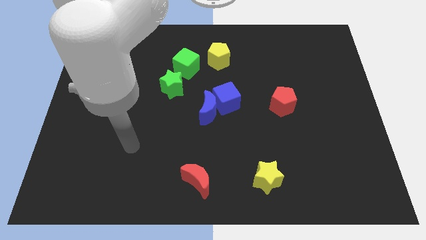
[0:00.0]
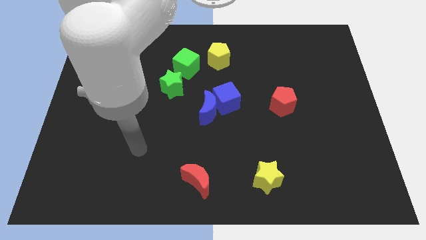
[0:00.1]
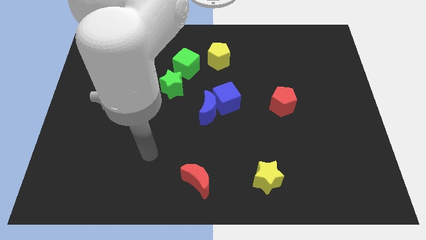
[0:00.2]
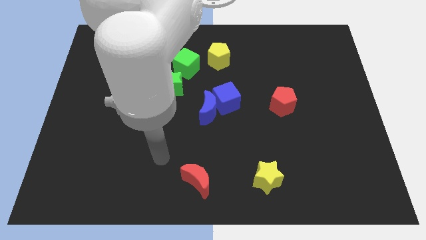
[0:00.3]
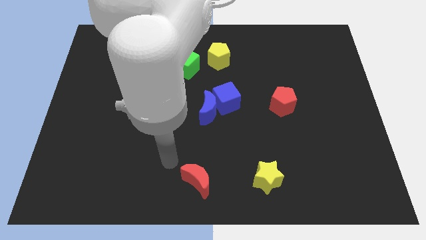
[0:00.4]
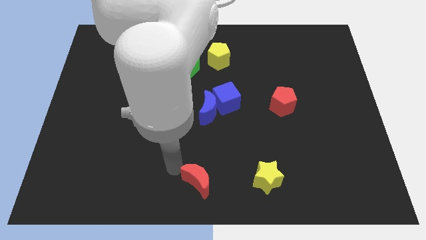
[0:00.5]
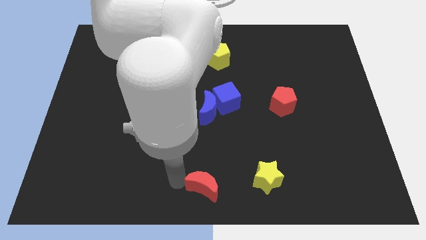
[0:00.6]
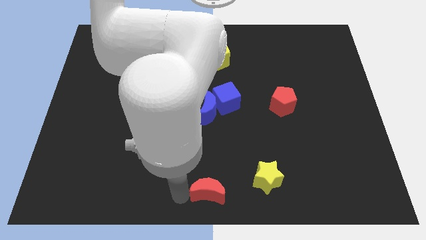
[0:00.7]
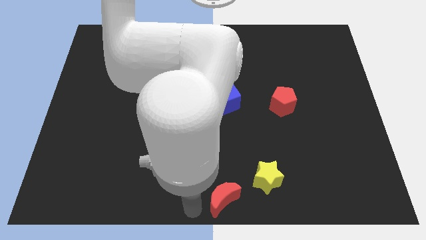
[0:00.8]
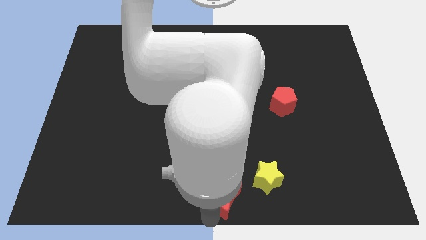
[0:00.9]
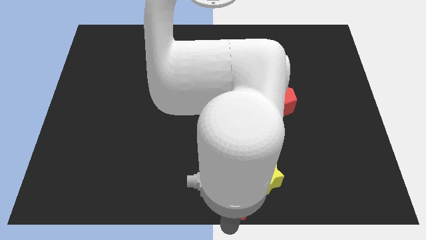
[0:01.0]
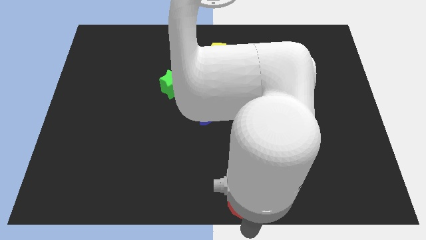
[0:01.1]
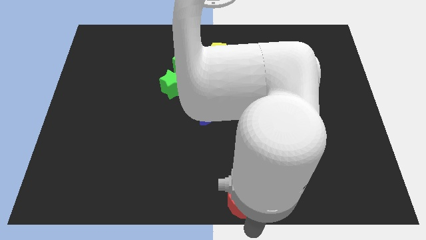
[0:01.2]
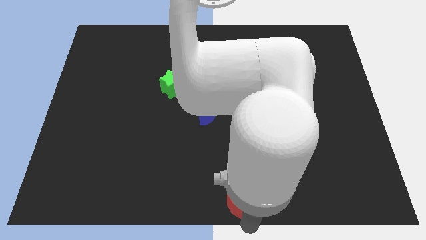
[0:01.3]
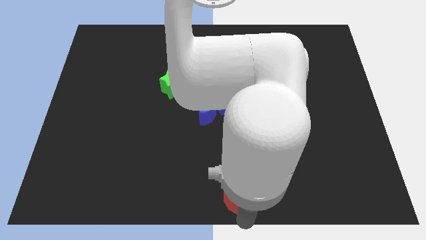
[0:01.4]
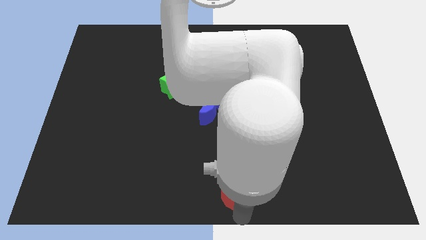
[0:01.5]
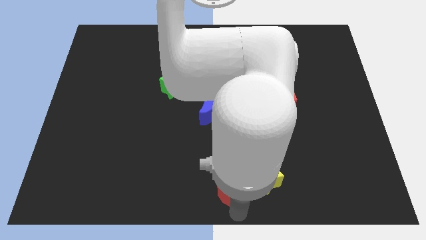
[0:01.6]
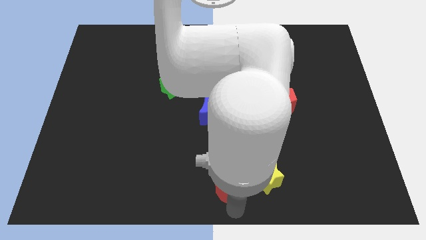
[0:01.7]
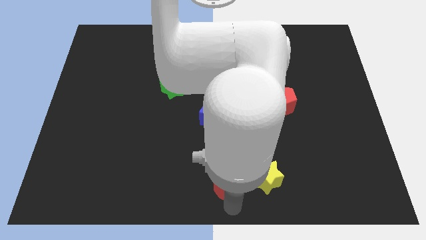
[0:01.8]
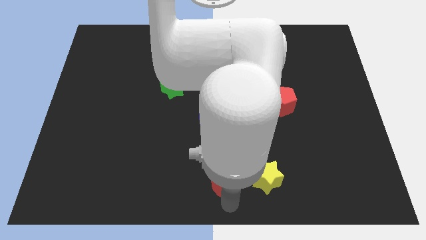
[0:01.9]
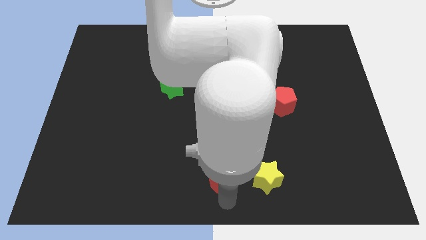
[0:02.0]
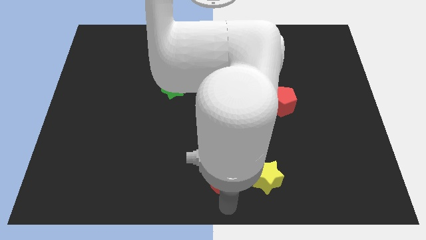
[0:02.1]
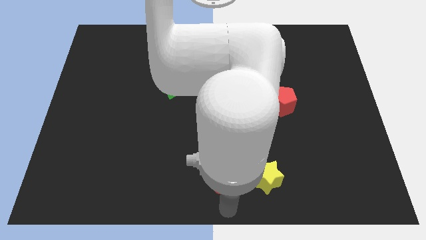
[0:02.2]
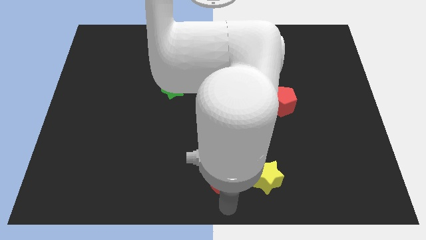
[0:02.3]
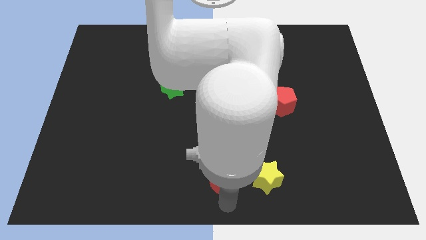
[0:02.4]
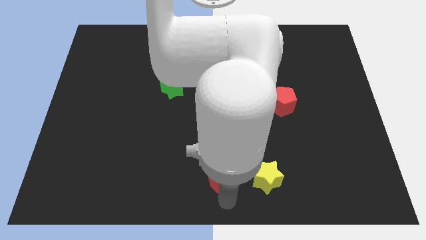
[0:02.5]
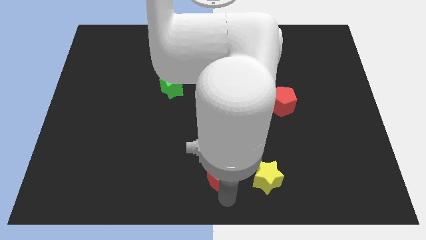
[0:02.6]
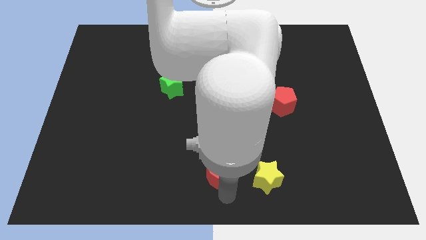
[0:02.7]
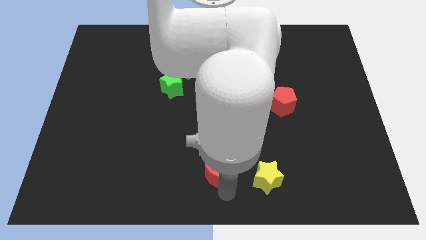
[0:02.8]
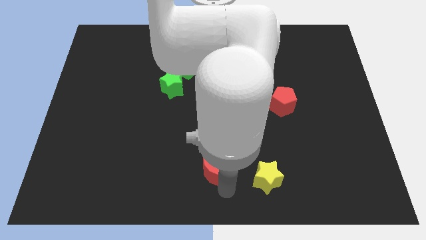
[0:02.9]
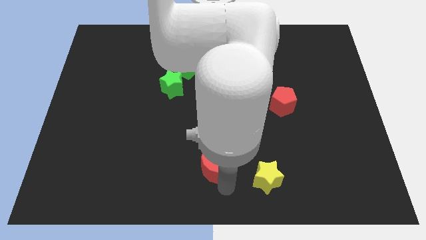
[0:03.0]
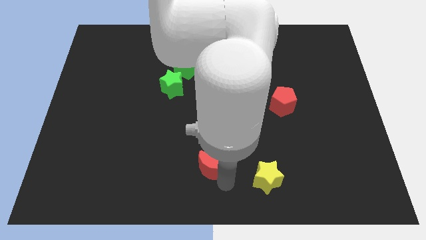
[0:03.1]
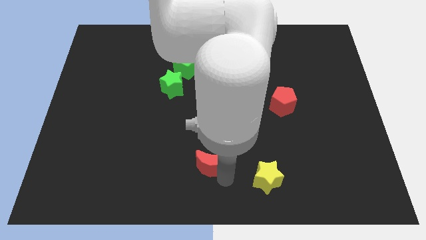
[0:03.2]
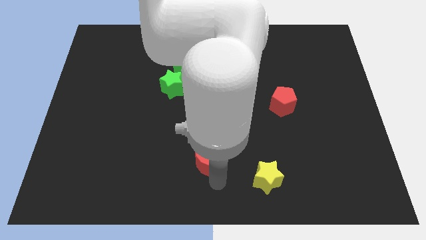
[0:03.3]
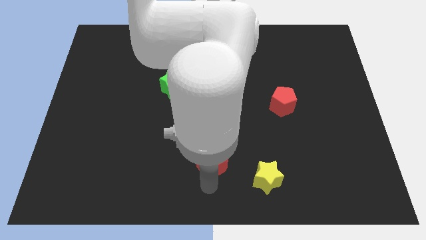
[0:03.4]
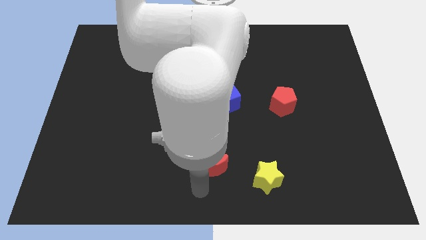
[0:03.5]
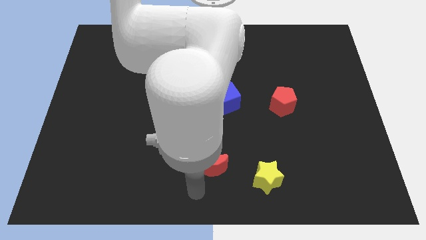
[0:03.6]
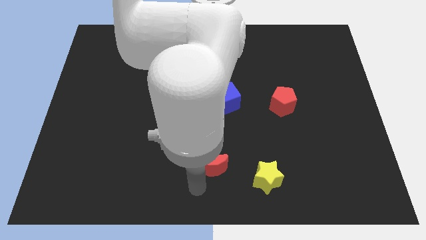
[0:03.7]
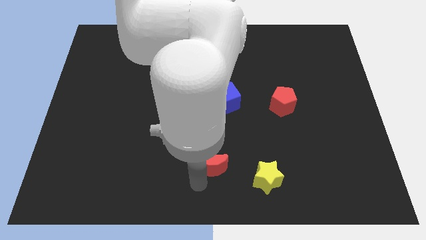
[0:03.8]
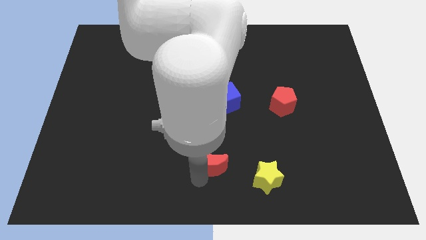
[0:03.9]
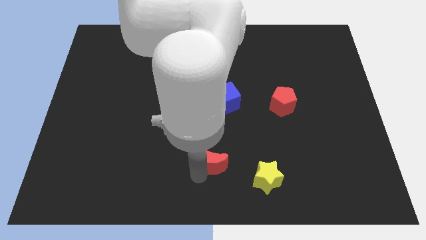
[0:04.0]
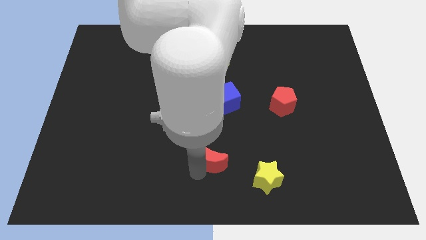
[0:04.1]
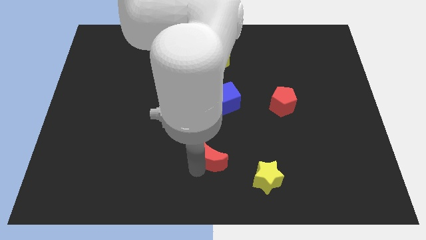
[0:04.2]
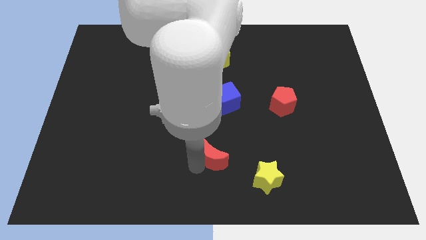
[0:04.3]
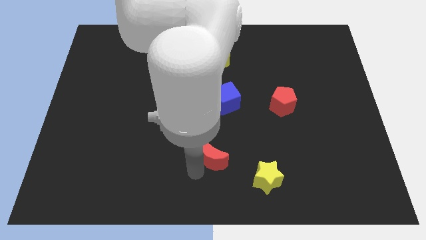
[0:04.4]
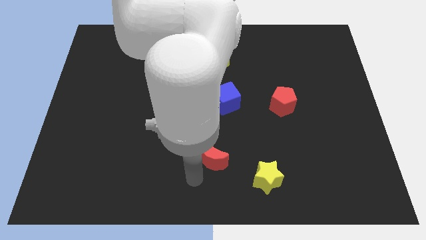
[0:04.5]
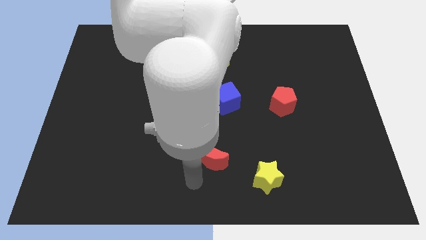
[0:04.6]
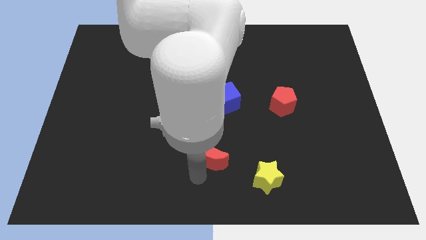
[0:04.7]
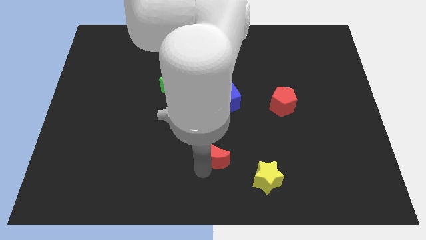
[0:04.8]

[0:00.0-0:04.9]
put the red moon to the bottom of the blue cube

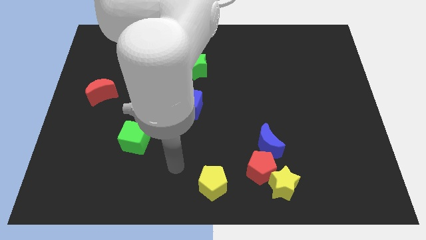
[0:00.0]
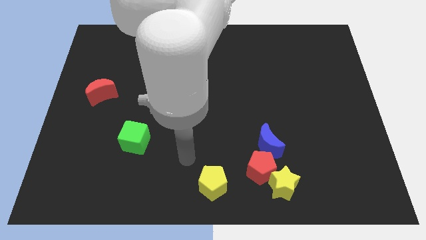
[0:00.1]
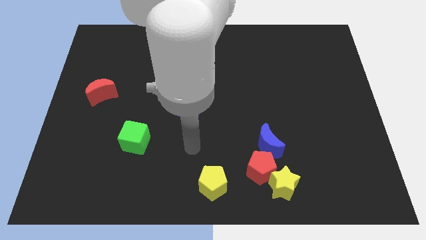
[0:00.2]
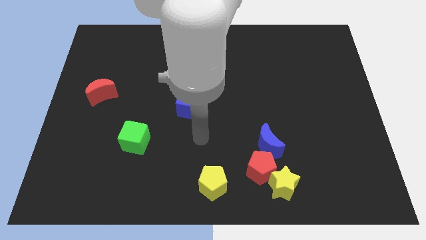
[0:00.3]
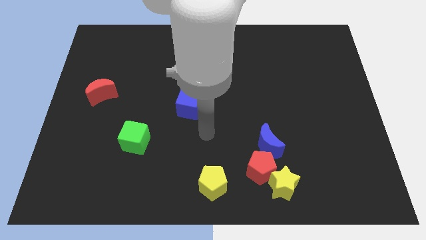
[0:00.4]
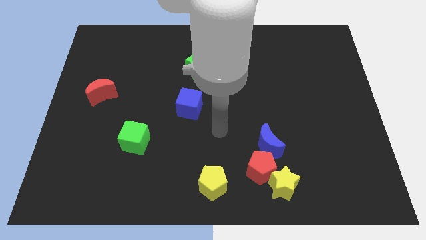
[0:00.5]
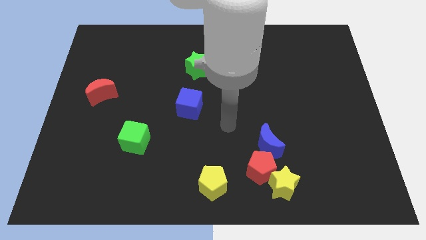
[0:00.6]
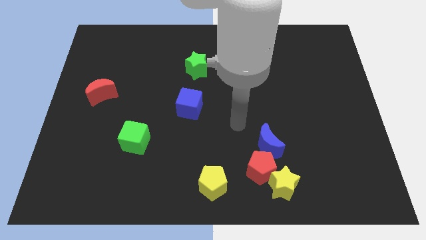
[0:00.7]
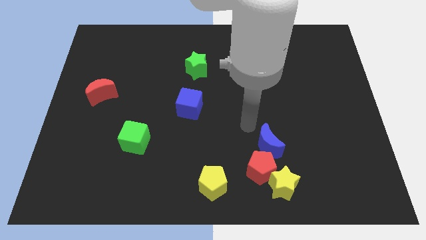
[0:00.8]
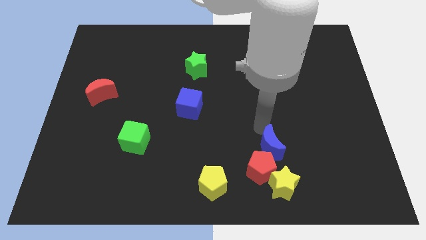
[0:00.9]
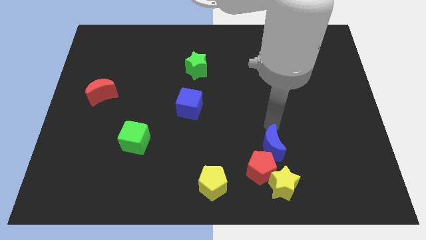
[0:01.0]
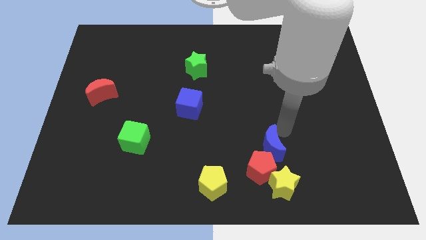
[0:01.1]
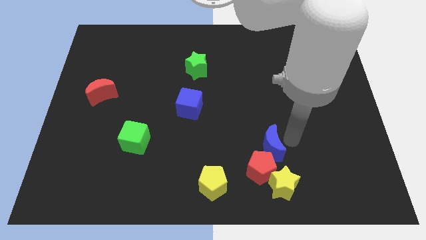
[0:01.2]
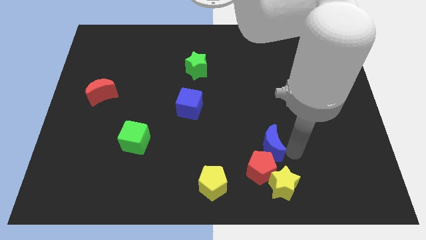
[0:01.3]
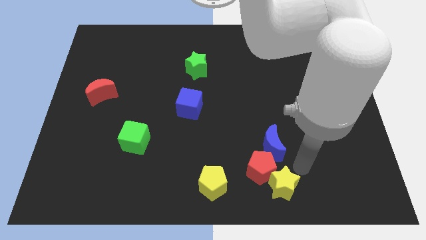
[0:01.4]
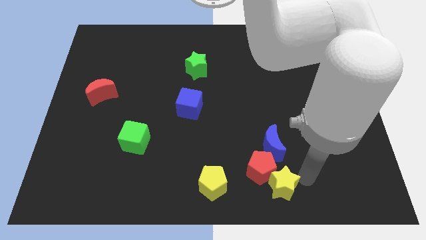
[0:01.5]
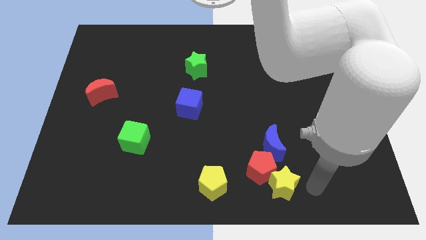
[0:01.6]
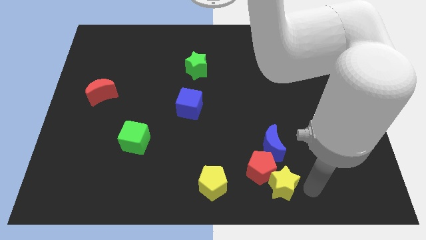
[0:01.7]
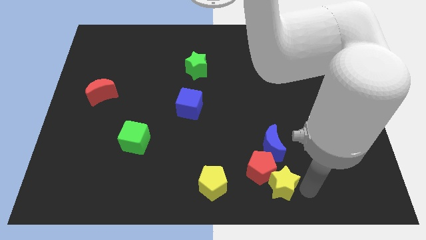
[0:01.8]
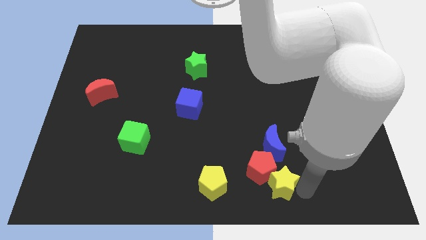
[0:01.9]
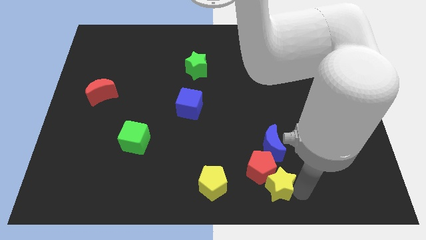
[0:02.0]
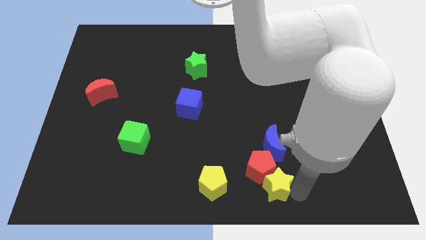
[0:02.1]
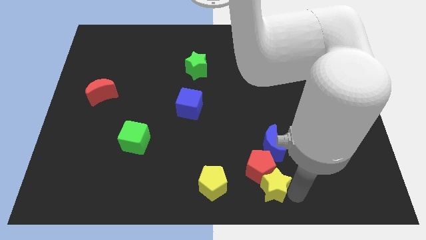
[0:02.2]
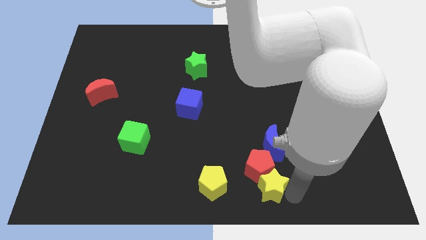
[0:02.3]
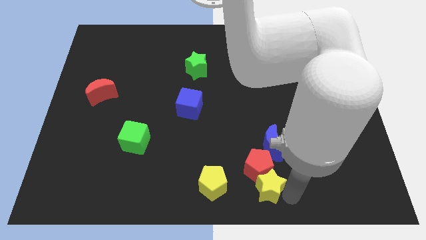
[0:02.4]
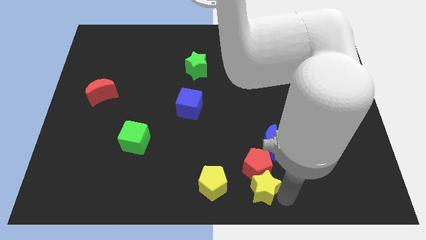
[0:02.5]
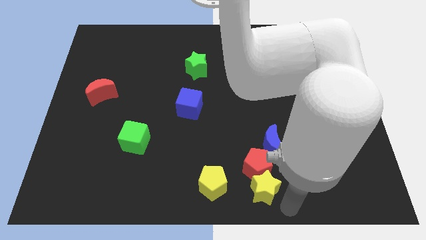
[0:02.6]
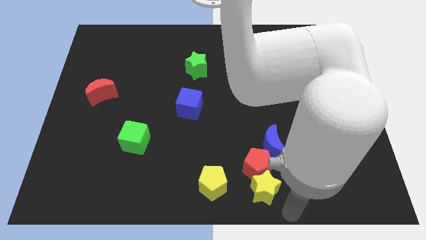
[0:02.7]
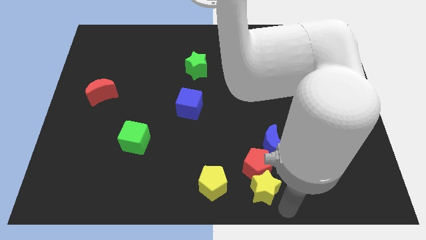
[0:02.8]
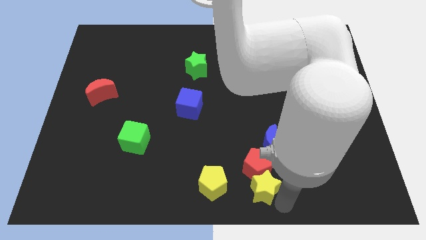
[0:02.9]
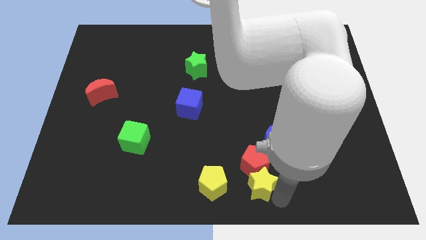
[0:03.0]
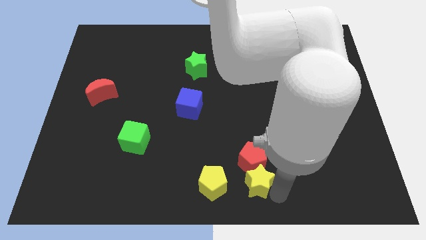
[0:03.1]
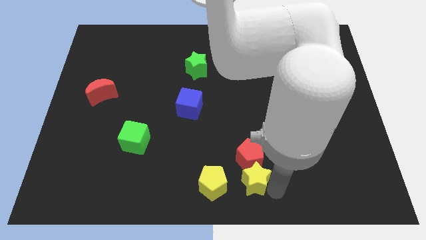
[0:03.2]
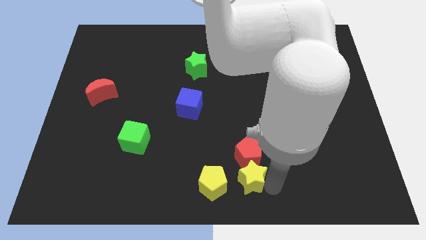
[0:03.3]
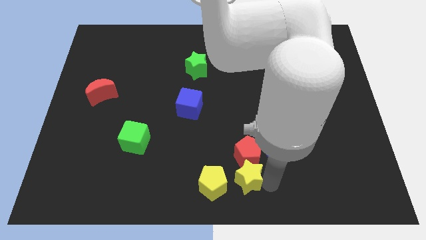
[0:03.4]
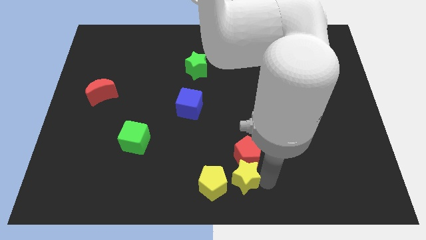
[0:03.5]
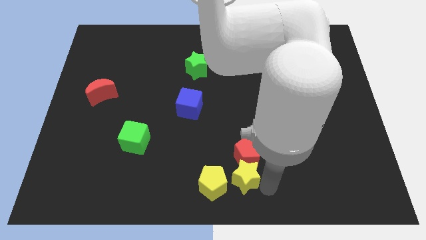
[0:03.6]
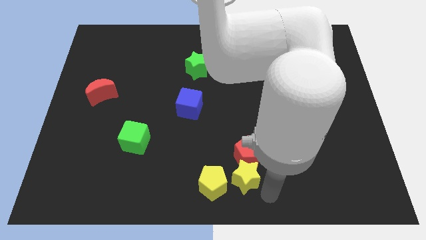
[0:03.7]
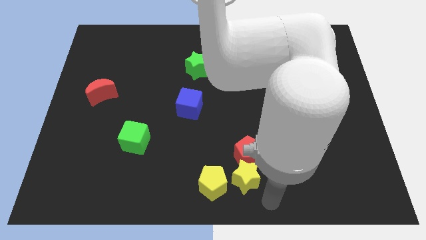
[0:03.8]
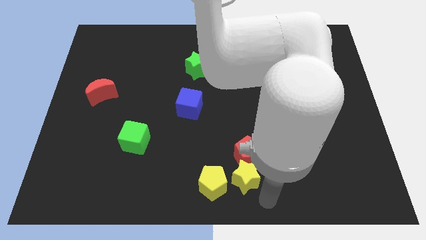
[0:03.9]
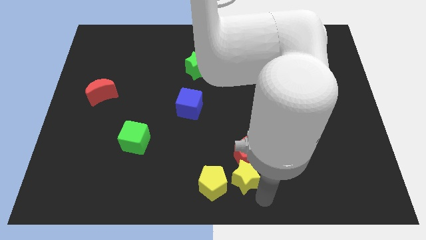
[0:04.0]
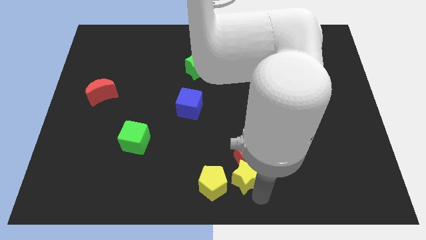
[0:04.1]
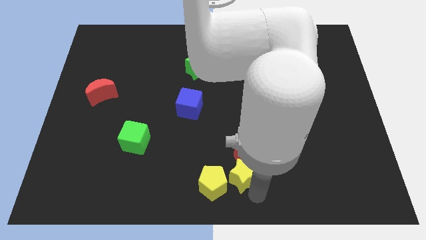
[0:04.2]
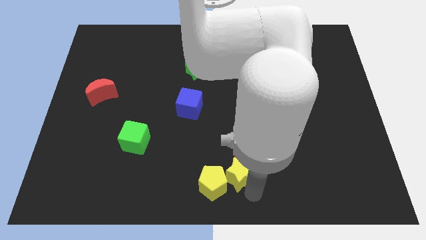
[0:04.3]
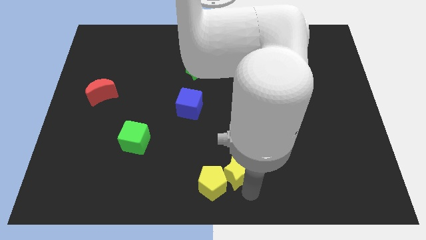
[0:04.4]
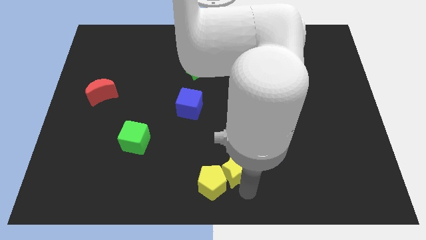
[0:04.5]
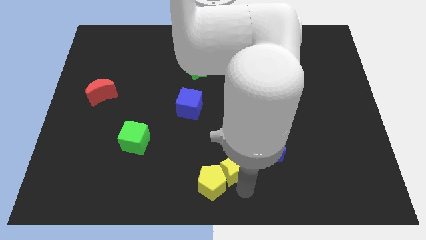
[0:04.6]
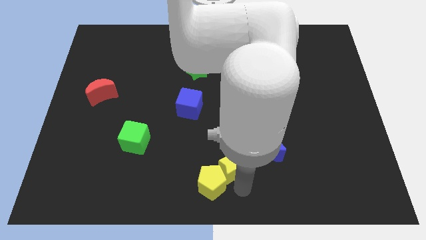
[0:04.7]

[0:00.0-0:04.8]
put the yellow star to the top side of the yellow pentagon
